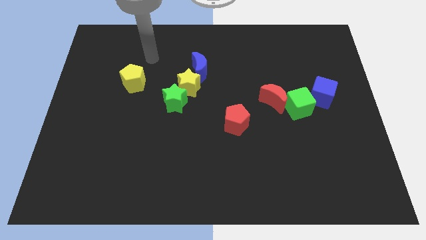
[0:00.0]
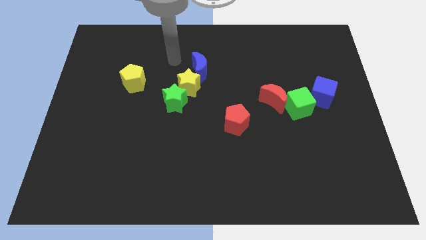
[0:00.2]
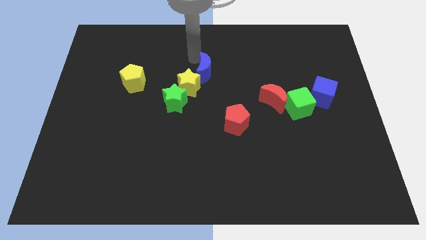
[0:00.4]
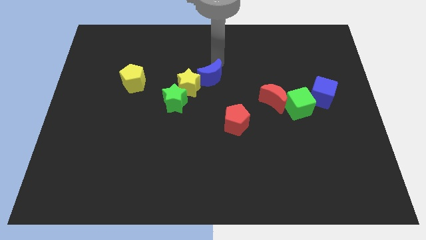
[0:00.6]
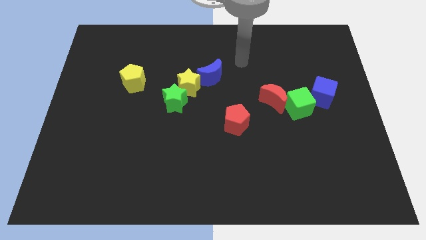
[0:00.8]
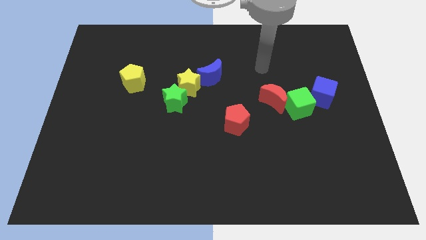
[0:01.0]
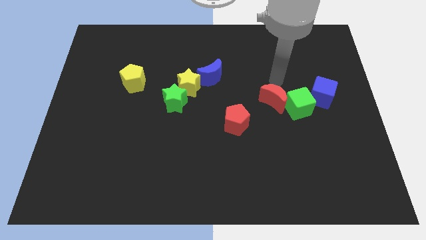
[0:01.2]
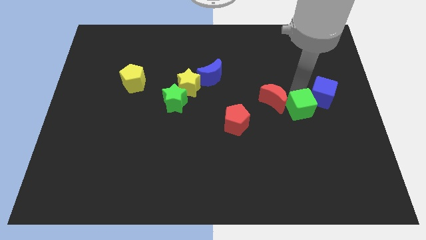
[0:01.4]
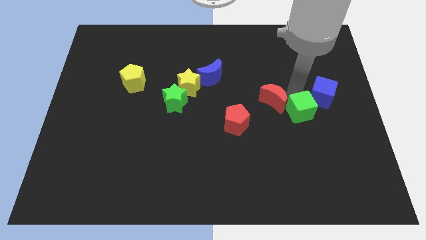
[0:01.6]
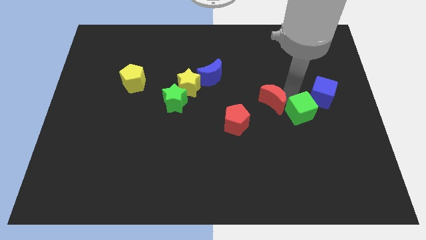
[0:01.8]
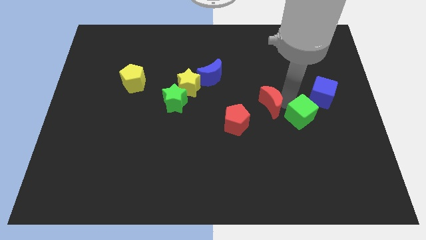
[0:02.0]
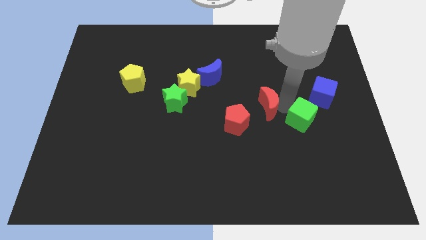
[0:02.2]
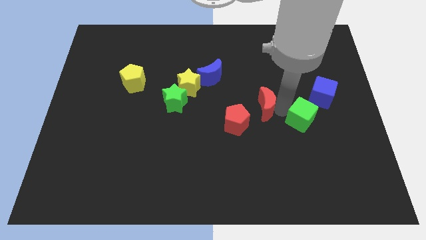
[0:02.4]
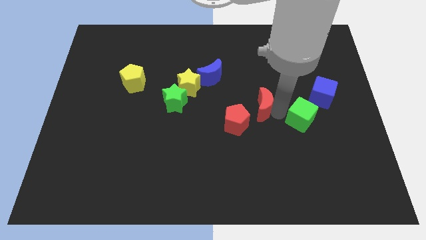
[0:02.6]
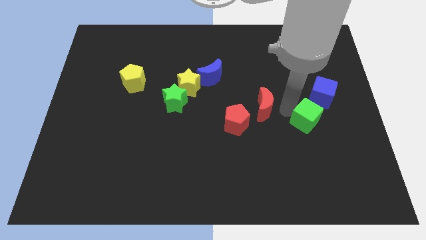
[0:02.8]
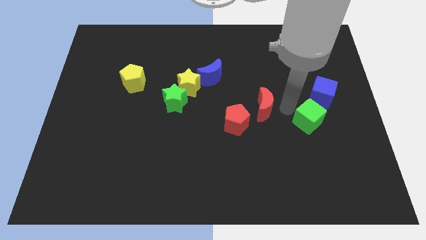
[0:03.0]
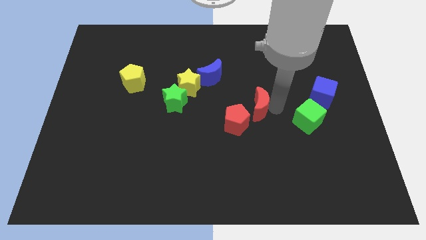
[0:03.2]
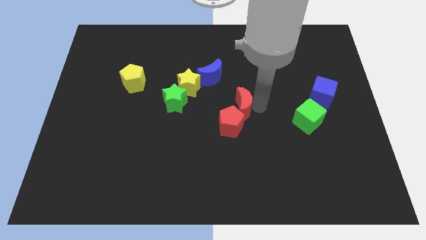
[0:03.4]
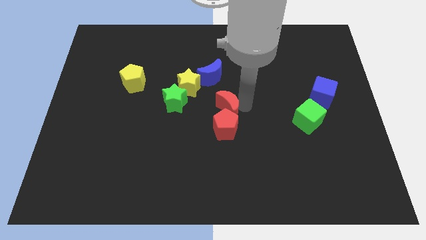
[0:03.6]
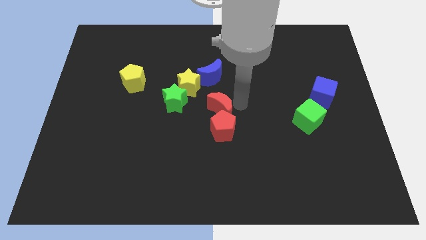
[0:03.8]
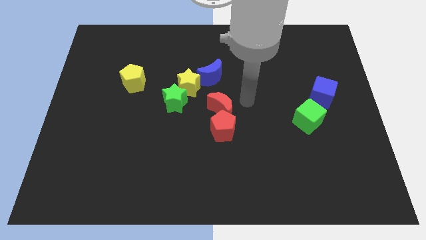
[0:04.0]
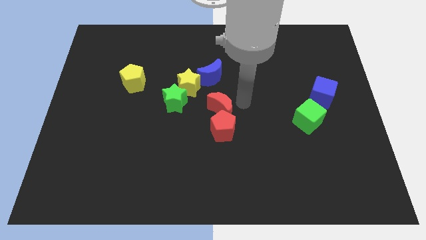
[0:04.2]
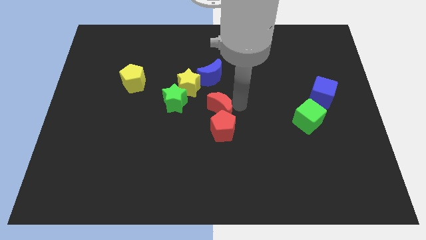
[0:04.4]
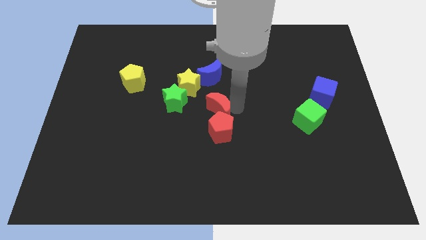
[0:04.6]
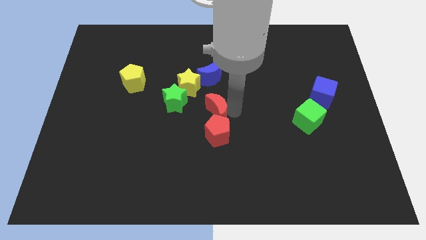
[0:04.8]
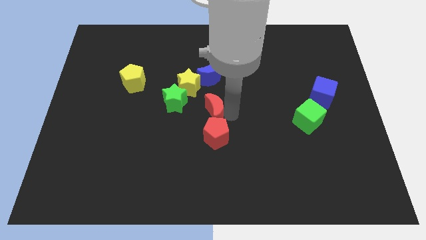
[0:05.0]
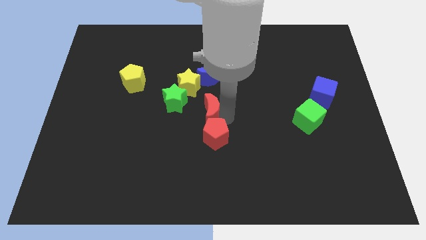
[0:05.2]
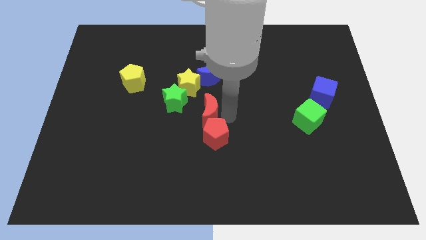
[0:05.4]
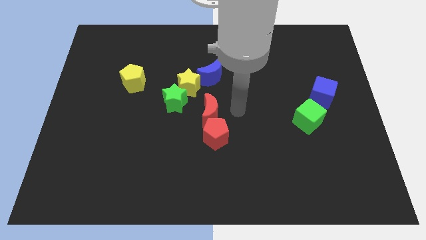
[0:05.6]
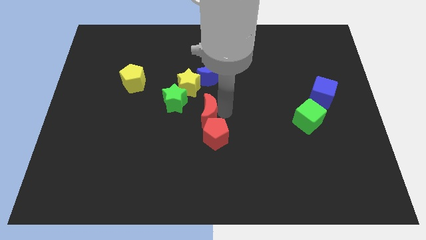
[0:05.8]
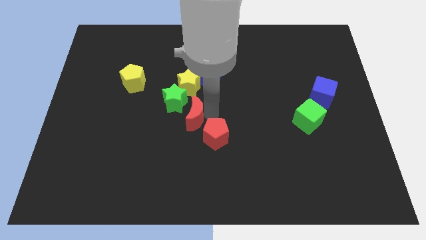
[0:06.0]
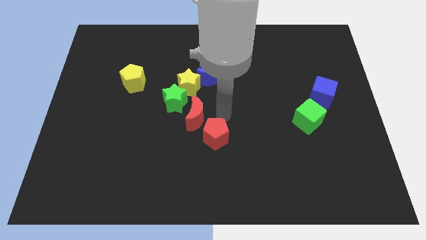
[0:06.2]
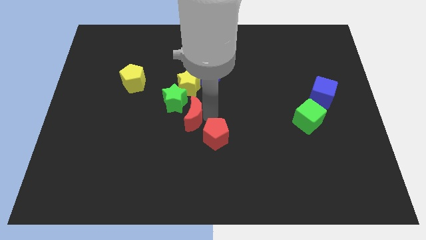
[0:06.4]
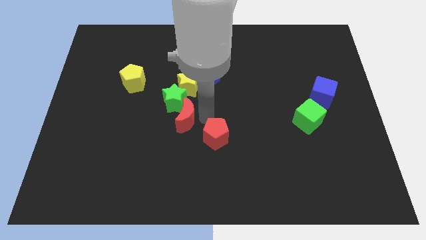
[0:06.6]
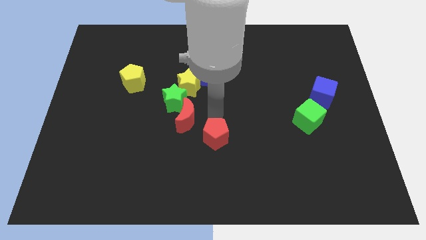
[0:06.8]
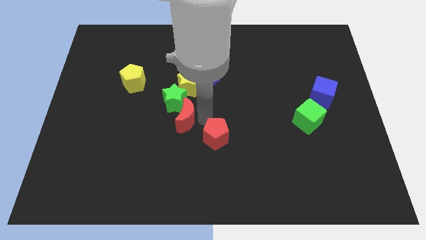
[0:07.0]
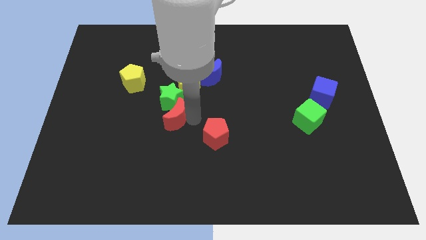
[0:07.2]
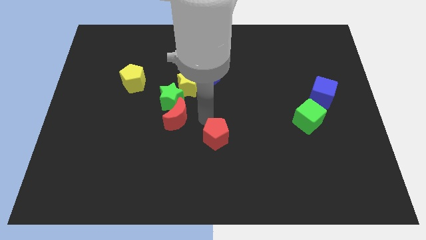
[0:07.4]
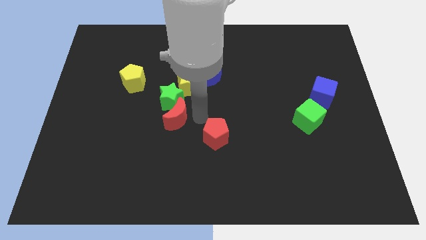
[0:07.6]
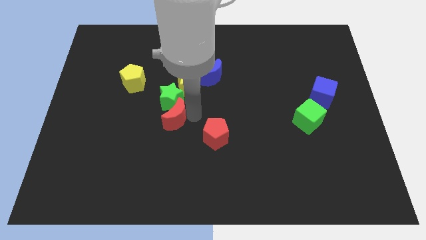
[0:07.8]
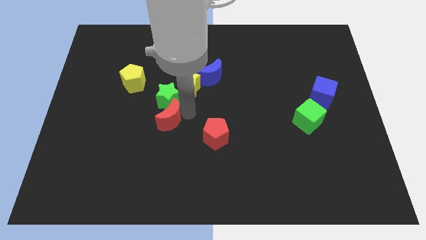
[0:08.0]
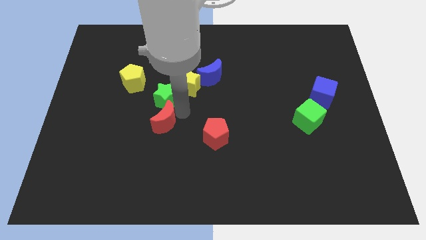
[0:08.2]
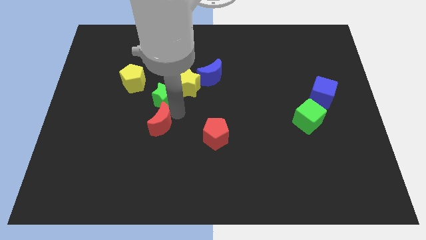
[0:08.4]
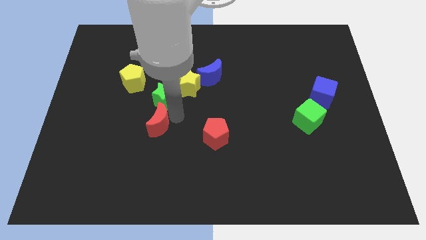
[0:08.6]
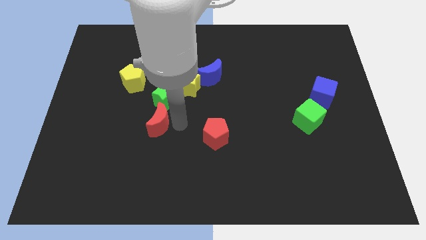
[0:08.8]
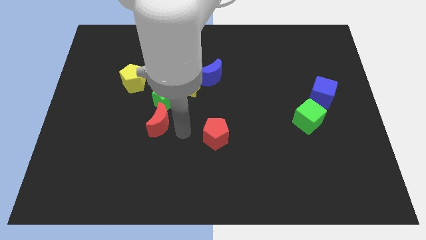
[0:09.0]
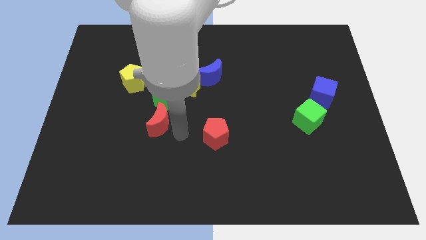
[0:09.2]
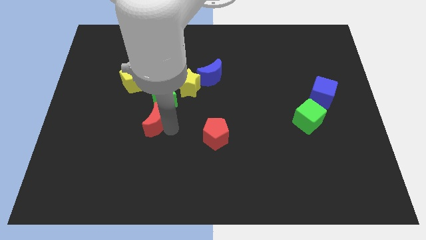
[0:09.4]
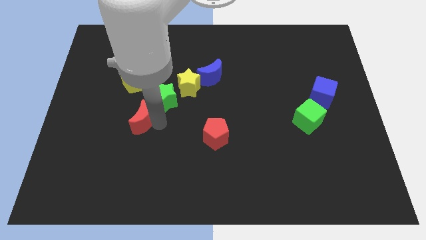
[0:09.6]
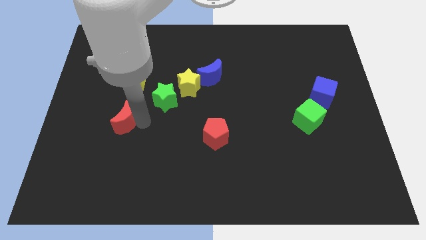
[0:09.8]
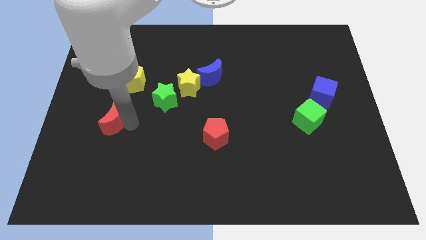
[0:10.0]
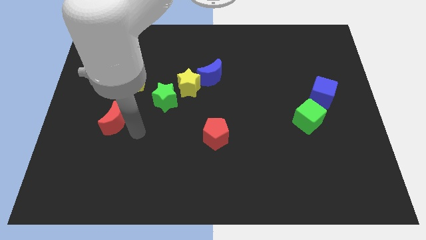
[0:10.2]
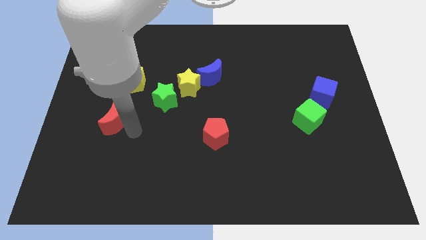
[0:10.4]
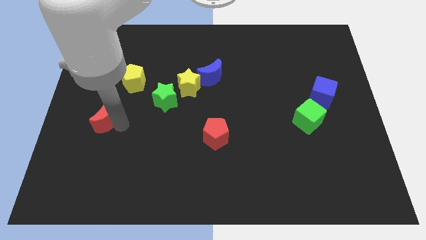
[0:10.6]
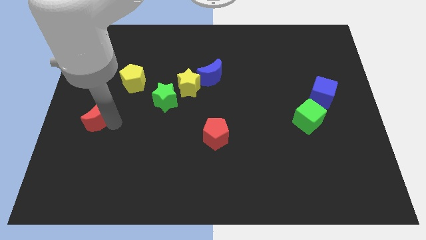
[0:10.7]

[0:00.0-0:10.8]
move the red moon to the left side

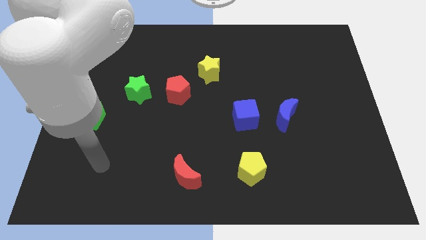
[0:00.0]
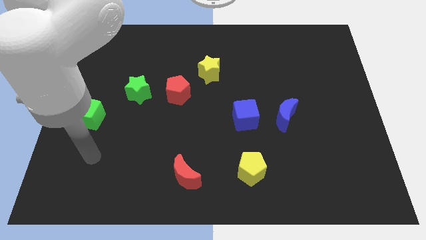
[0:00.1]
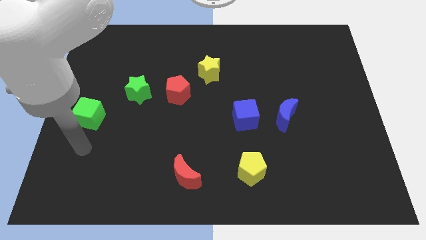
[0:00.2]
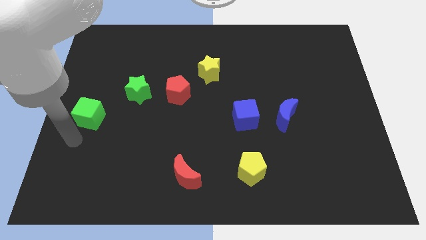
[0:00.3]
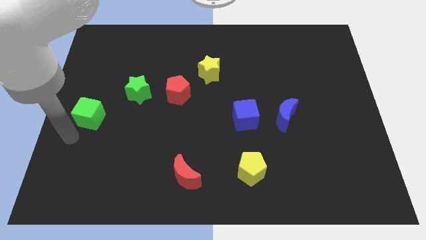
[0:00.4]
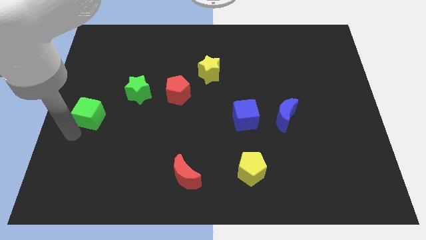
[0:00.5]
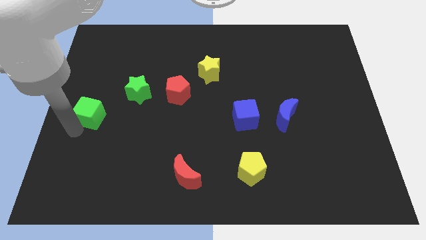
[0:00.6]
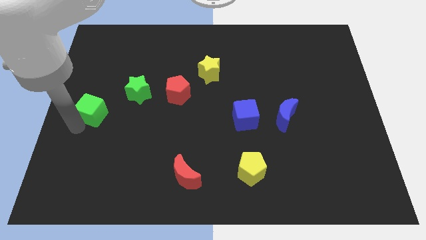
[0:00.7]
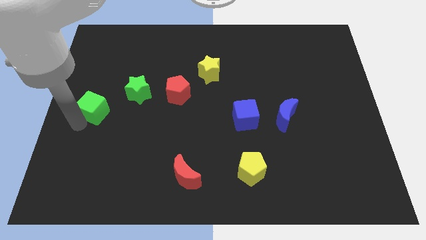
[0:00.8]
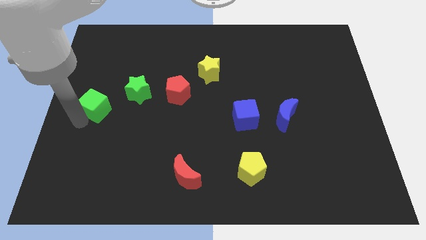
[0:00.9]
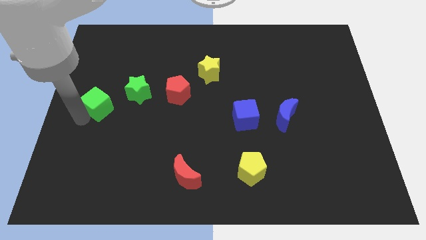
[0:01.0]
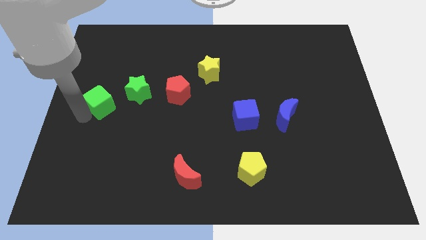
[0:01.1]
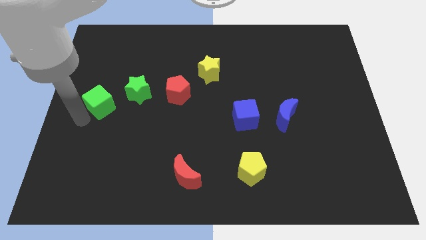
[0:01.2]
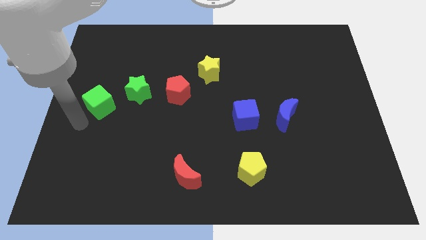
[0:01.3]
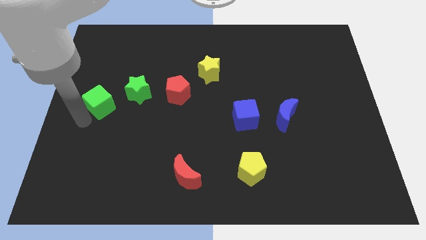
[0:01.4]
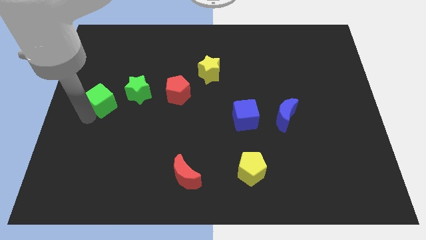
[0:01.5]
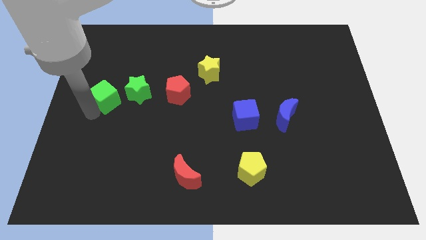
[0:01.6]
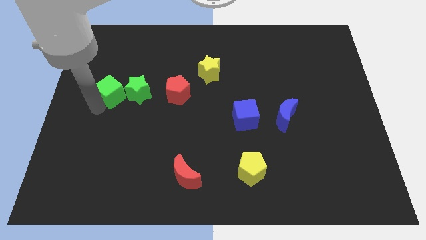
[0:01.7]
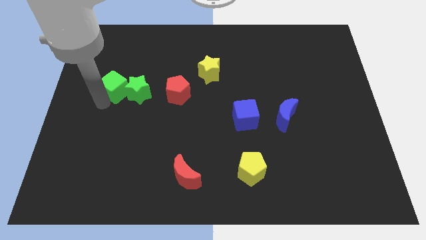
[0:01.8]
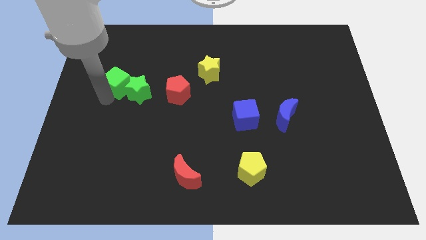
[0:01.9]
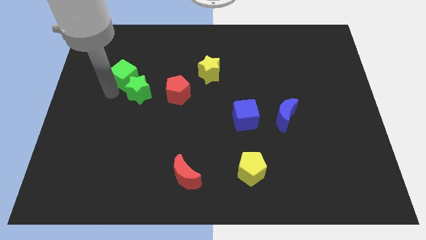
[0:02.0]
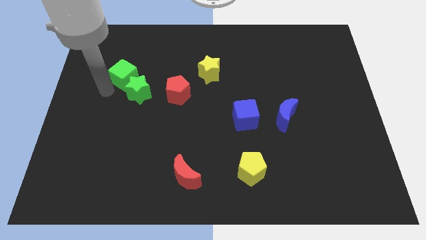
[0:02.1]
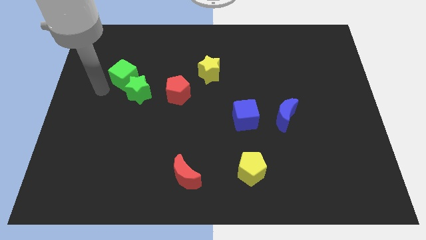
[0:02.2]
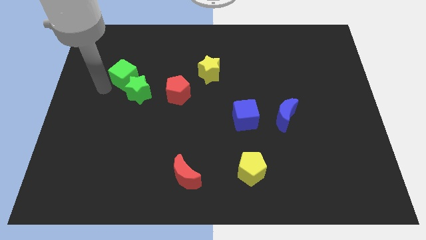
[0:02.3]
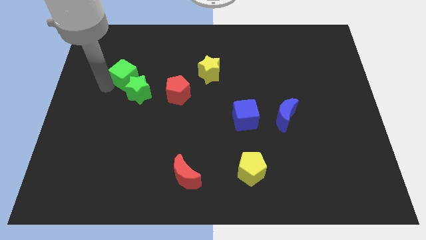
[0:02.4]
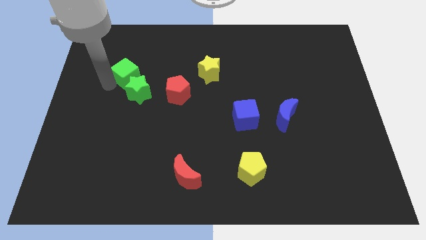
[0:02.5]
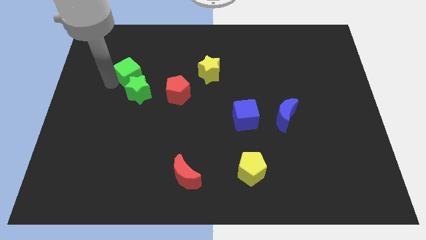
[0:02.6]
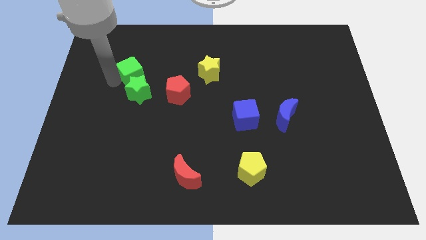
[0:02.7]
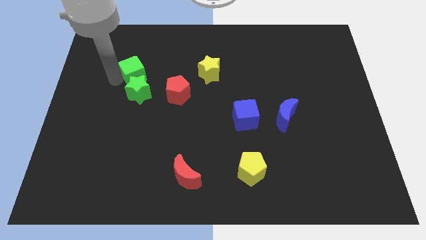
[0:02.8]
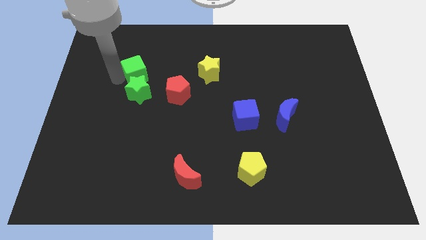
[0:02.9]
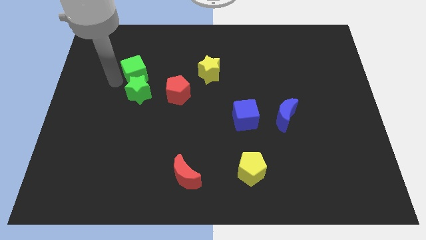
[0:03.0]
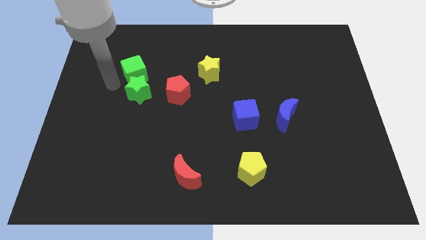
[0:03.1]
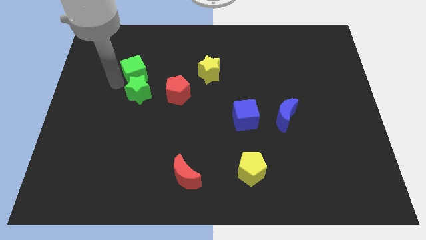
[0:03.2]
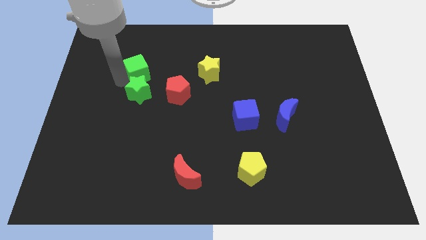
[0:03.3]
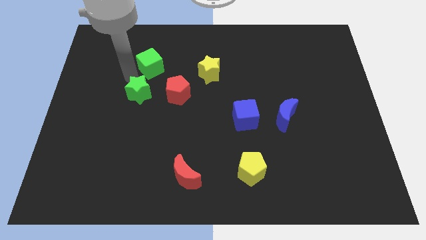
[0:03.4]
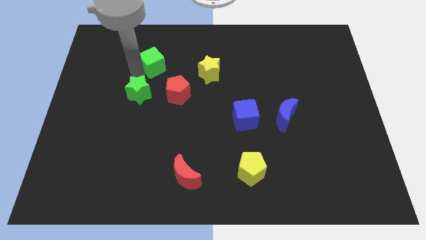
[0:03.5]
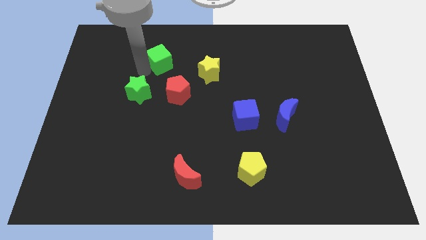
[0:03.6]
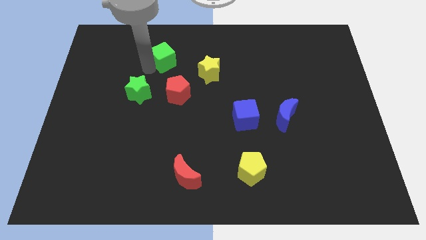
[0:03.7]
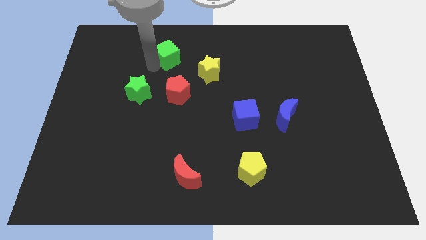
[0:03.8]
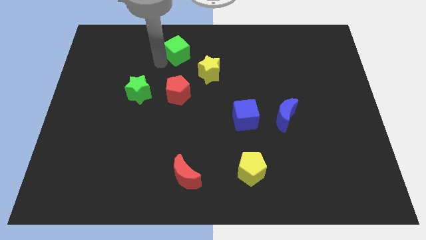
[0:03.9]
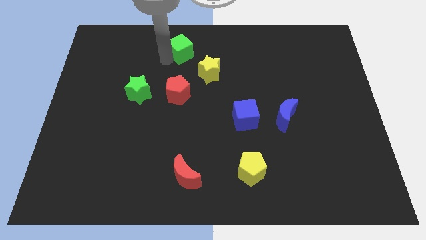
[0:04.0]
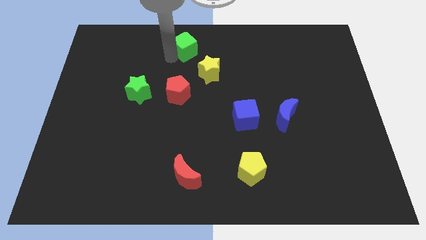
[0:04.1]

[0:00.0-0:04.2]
push the green cube to the top
